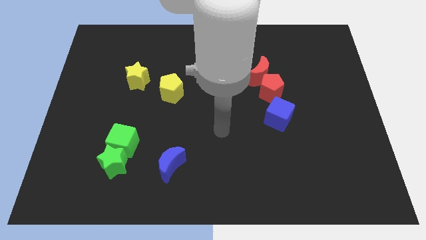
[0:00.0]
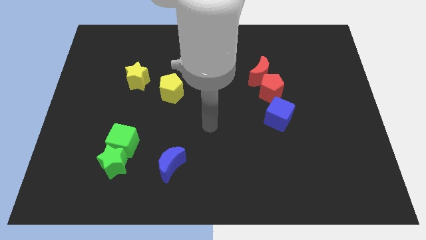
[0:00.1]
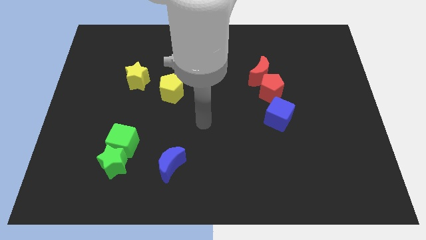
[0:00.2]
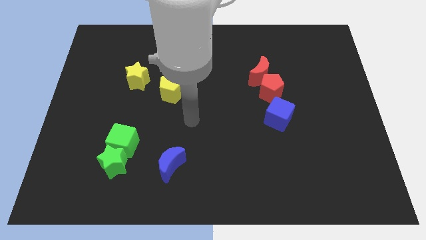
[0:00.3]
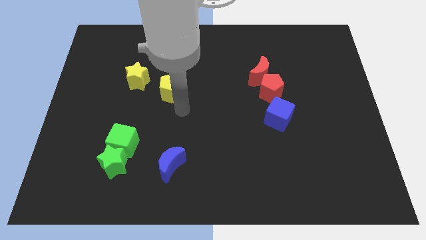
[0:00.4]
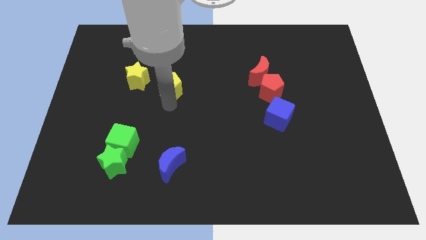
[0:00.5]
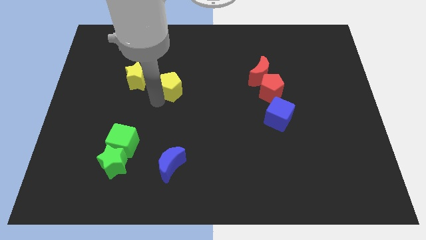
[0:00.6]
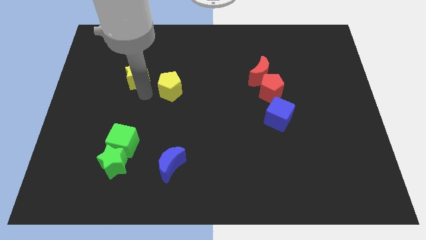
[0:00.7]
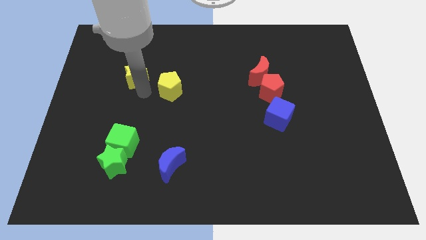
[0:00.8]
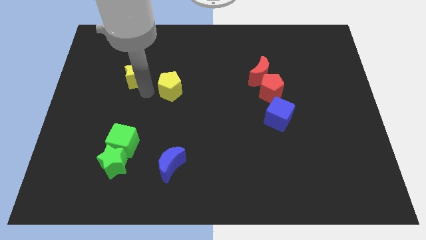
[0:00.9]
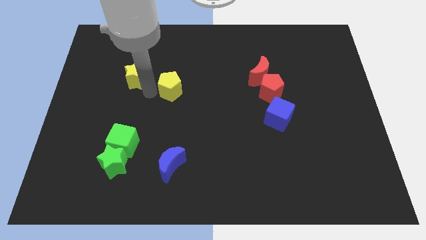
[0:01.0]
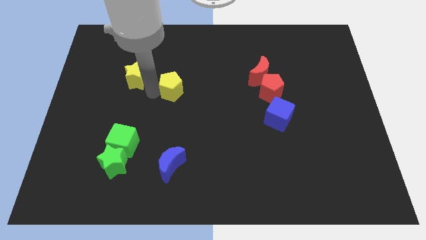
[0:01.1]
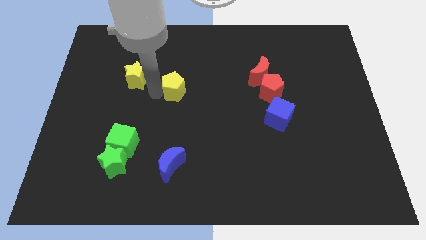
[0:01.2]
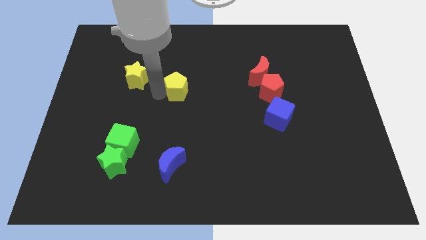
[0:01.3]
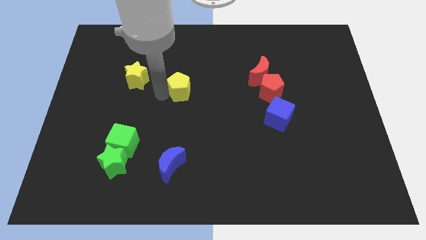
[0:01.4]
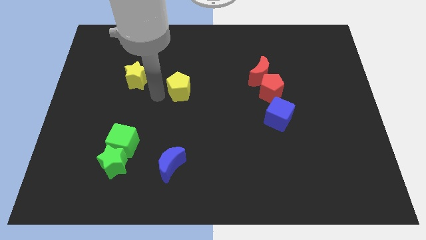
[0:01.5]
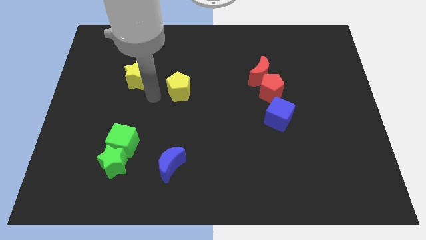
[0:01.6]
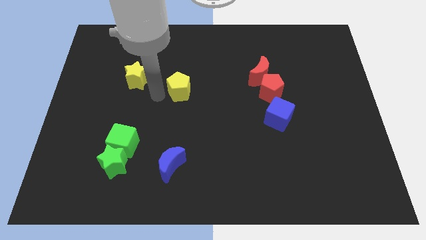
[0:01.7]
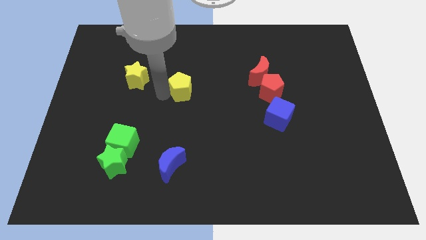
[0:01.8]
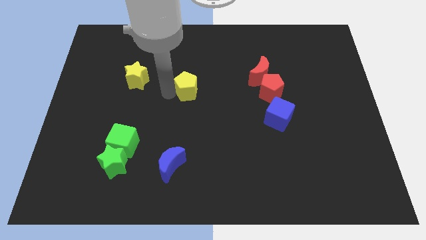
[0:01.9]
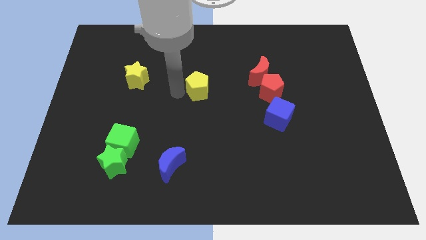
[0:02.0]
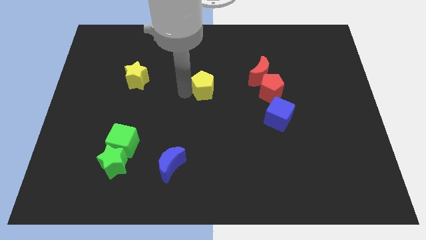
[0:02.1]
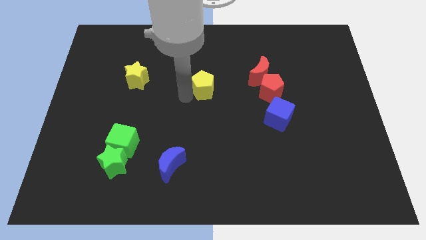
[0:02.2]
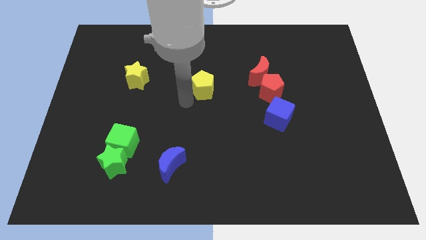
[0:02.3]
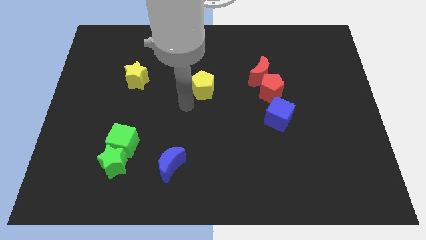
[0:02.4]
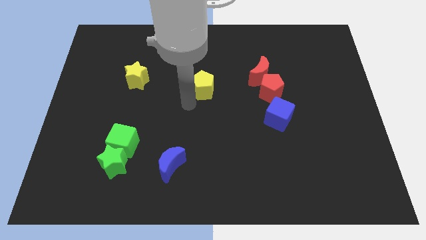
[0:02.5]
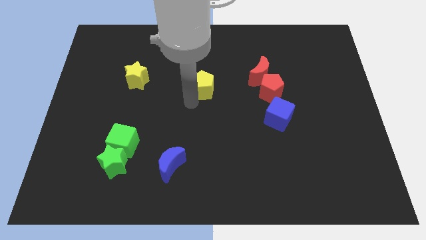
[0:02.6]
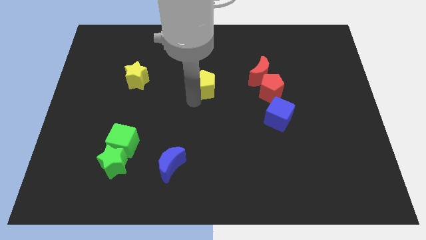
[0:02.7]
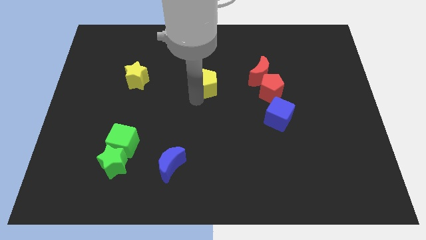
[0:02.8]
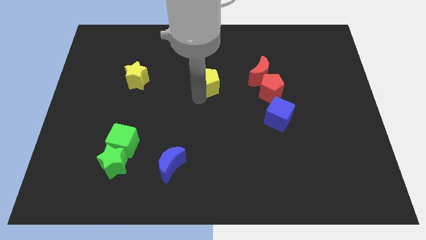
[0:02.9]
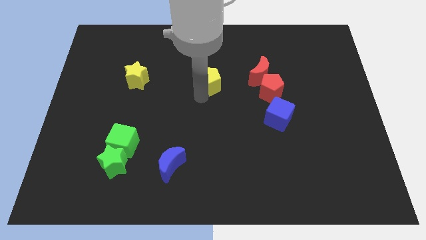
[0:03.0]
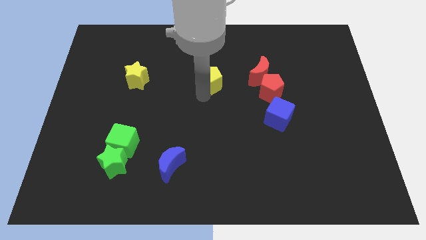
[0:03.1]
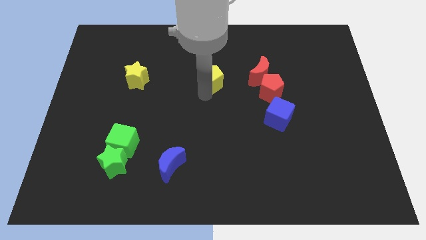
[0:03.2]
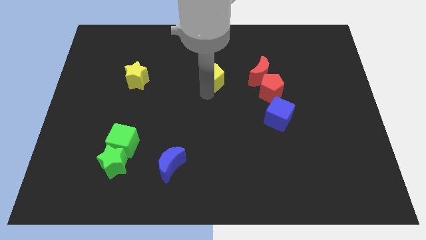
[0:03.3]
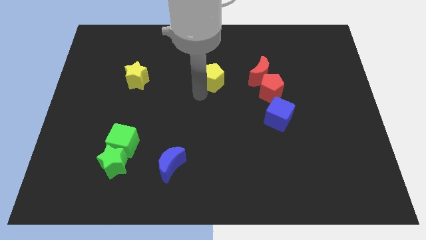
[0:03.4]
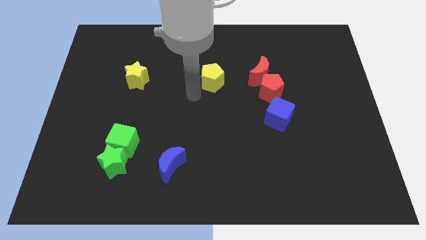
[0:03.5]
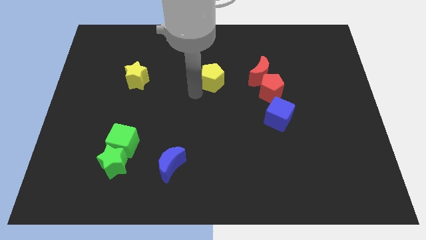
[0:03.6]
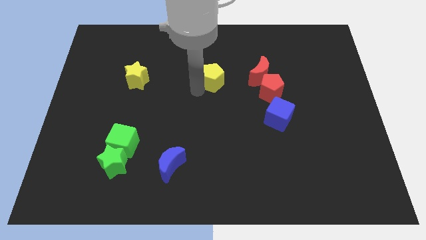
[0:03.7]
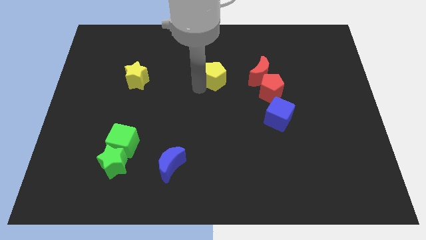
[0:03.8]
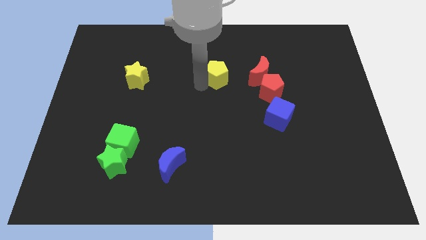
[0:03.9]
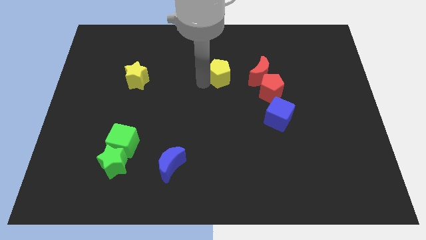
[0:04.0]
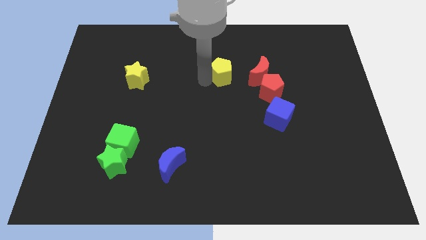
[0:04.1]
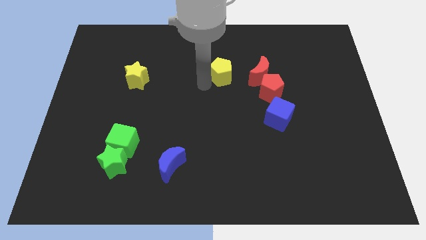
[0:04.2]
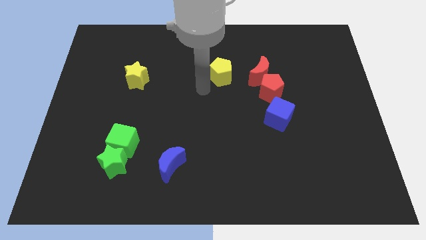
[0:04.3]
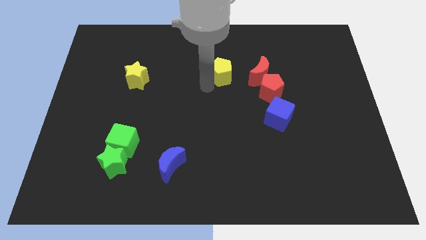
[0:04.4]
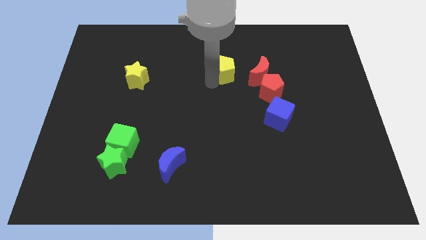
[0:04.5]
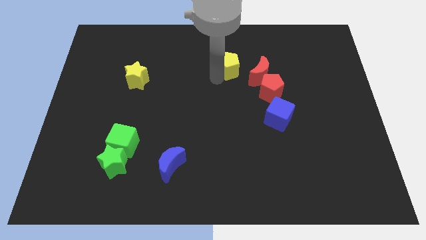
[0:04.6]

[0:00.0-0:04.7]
slide the yellow pentagon to the top left side of the red moon

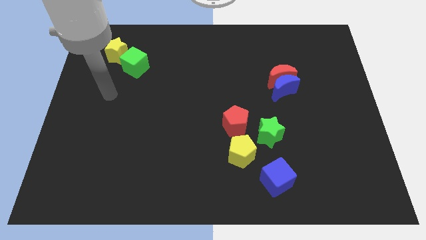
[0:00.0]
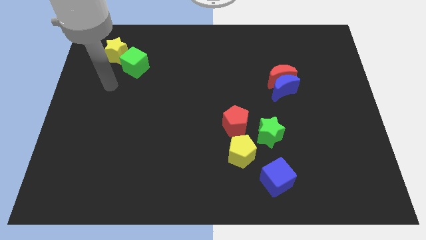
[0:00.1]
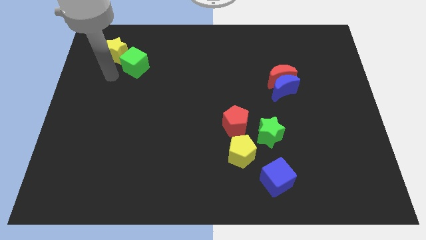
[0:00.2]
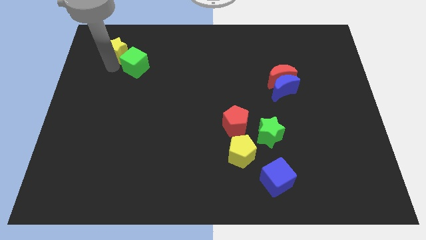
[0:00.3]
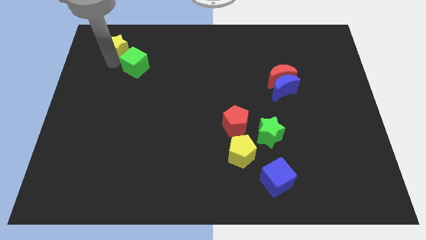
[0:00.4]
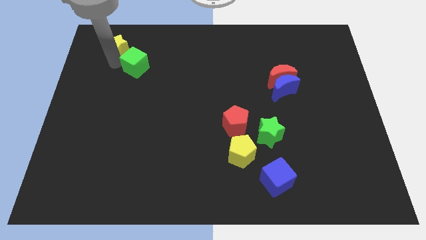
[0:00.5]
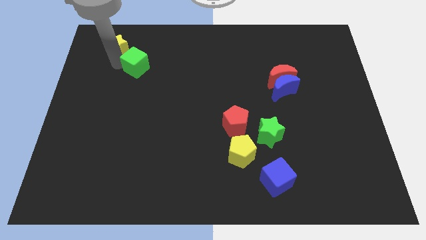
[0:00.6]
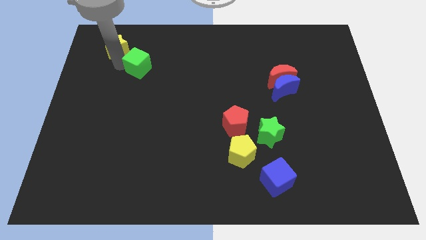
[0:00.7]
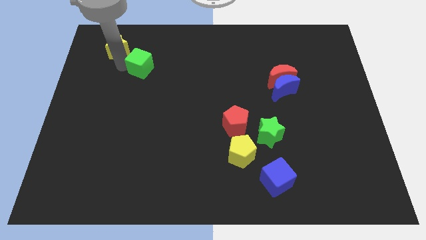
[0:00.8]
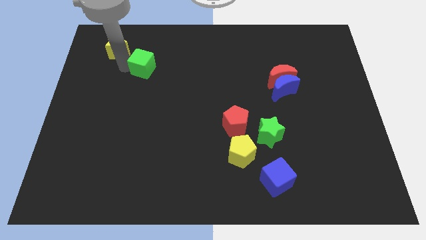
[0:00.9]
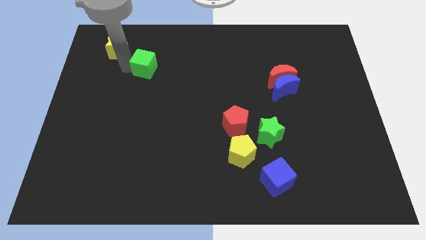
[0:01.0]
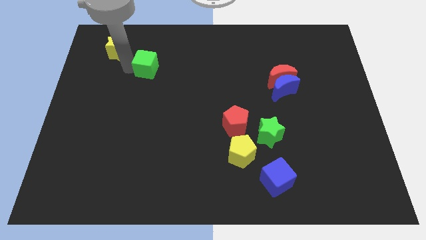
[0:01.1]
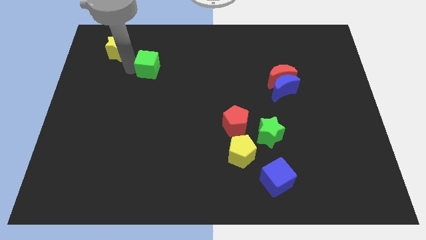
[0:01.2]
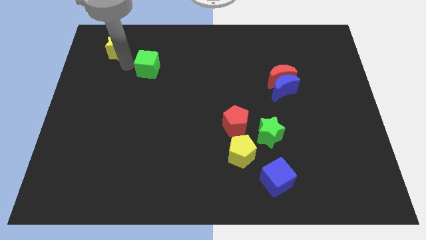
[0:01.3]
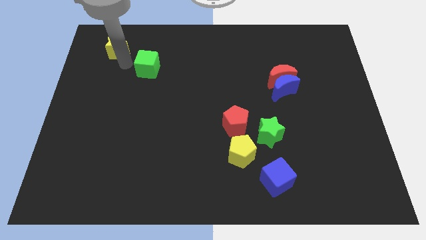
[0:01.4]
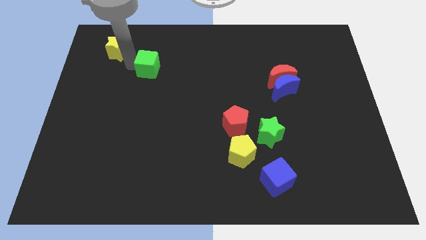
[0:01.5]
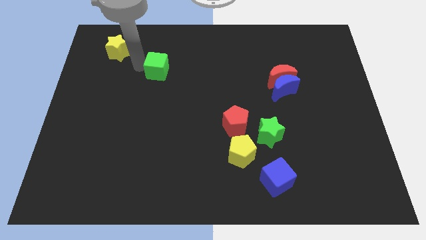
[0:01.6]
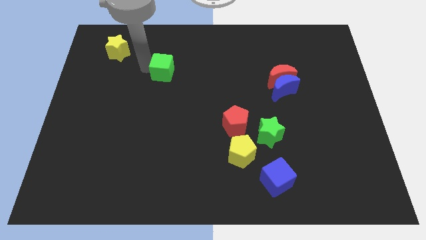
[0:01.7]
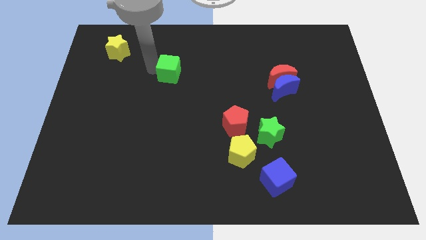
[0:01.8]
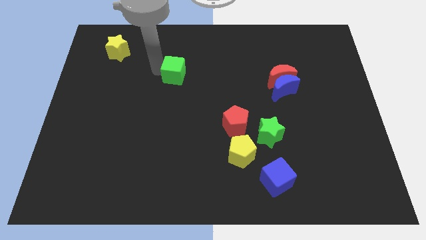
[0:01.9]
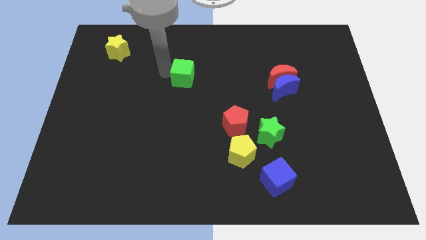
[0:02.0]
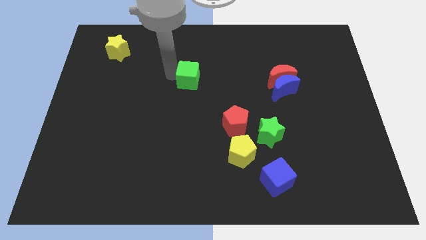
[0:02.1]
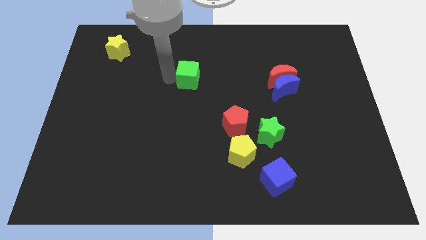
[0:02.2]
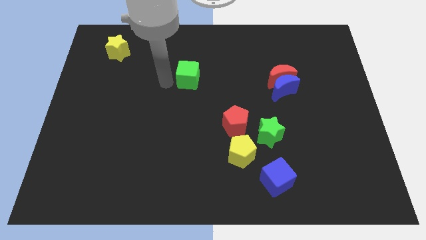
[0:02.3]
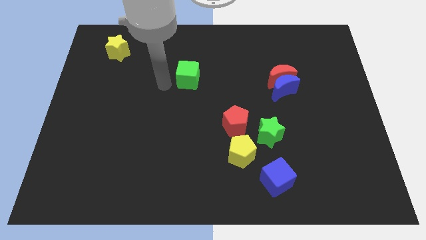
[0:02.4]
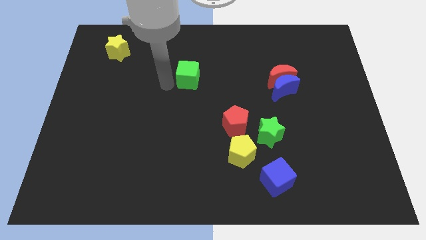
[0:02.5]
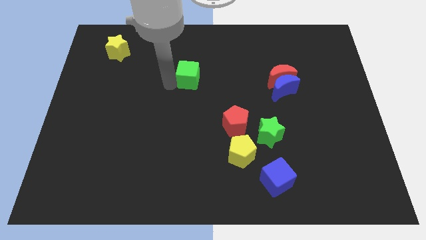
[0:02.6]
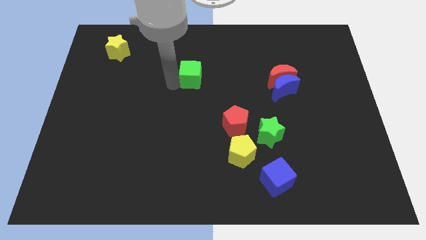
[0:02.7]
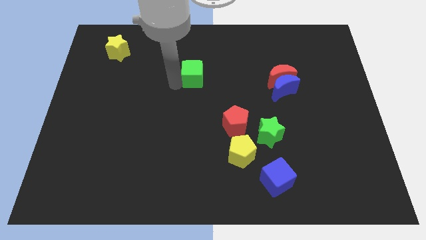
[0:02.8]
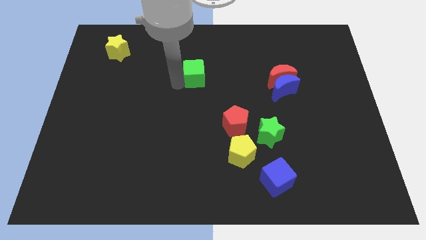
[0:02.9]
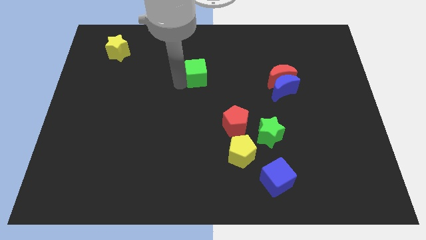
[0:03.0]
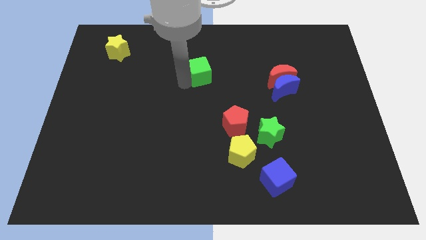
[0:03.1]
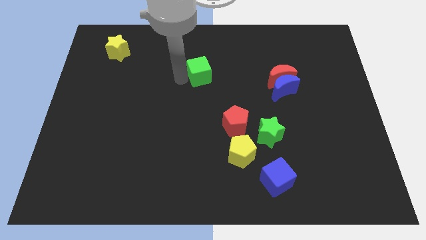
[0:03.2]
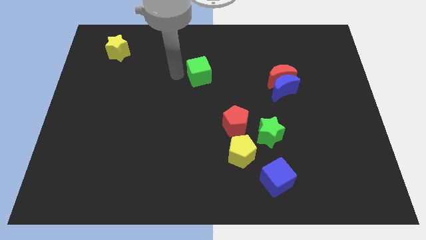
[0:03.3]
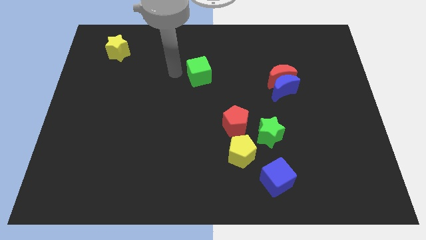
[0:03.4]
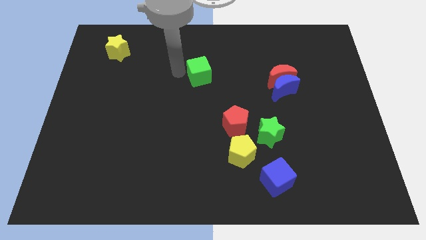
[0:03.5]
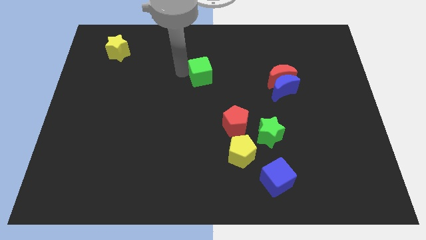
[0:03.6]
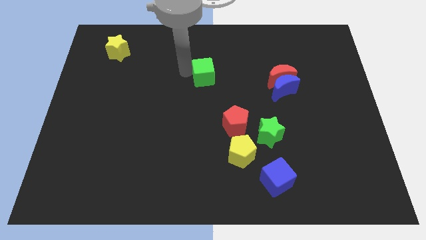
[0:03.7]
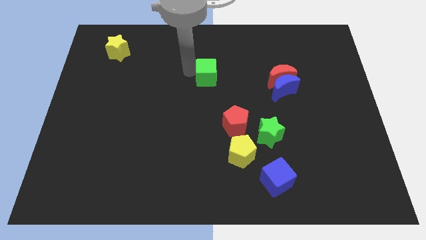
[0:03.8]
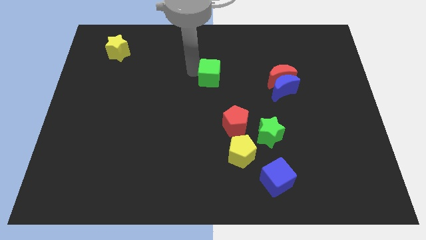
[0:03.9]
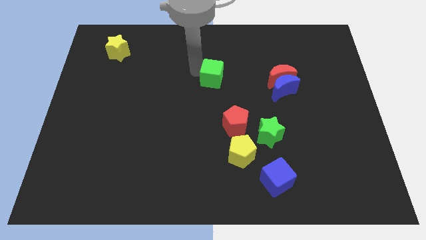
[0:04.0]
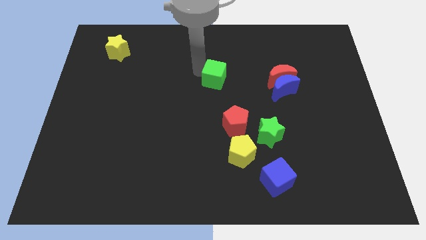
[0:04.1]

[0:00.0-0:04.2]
move the green cube left of the red moon
